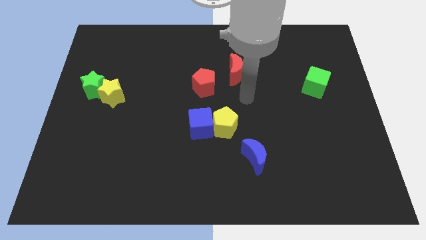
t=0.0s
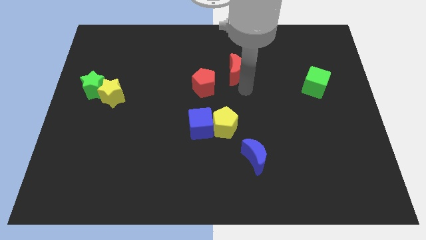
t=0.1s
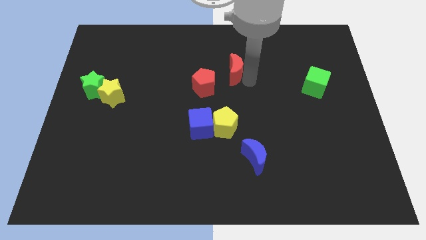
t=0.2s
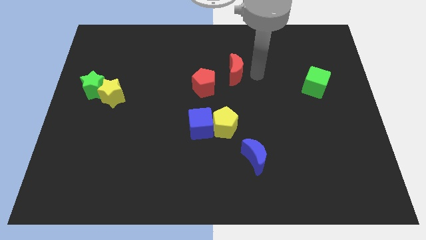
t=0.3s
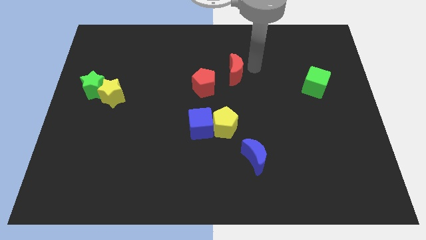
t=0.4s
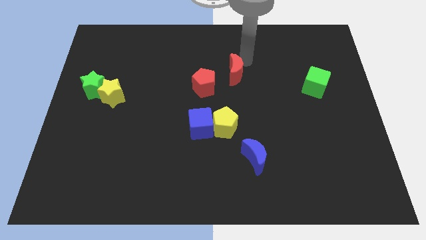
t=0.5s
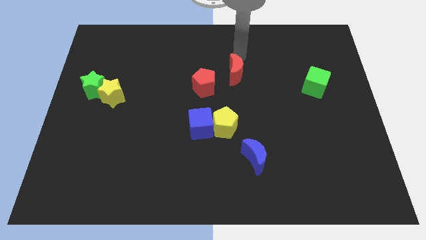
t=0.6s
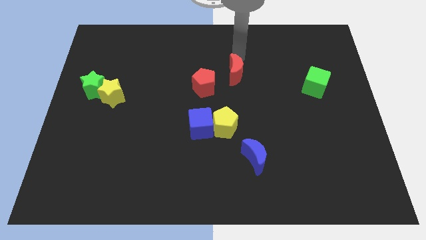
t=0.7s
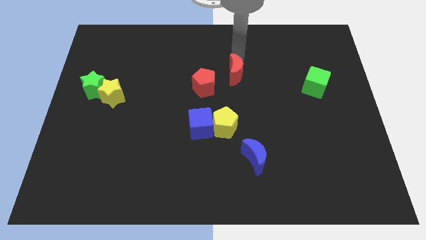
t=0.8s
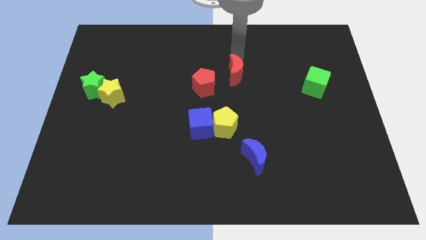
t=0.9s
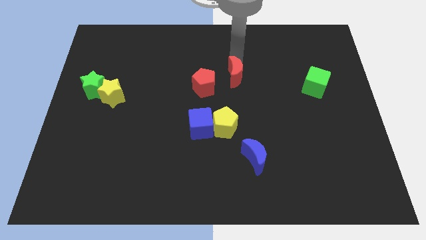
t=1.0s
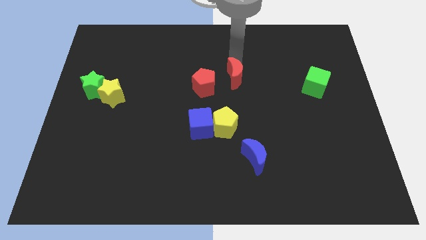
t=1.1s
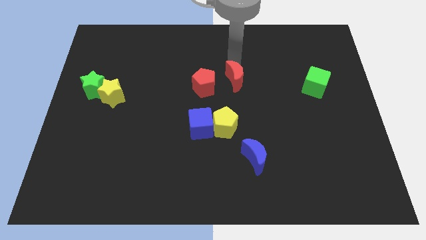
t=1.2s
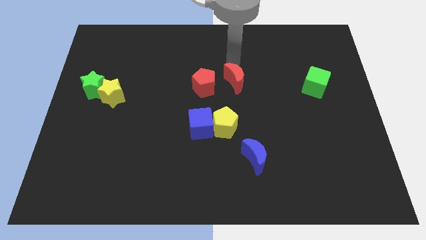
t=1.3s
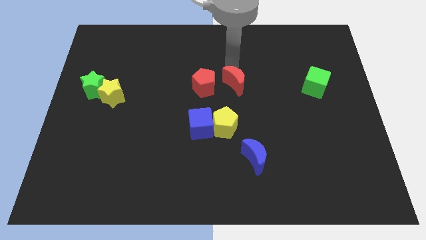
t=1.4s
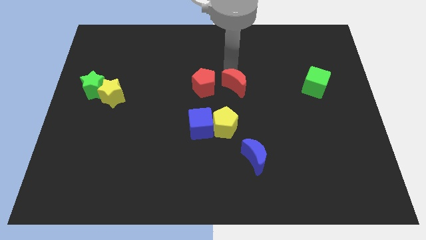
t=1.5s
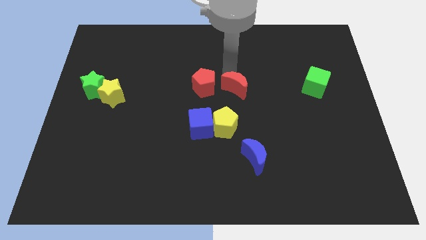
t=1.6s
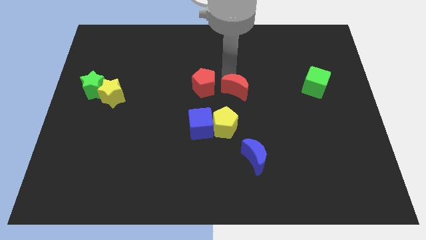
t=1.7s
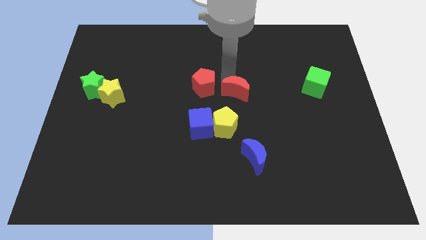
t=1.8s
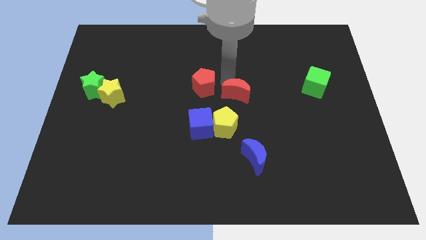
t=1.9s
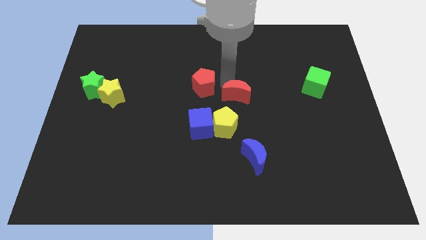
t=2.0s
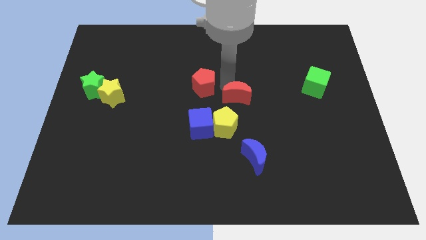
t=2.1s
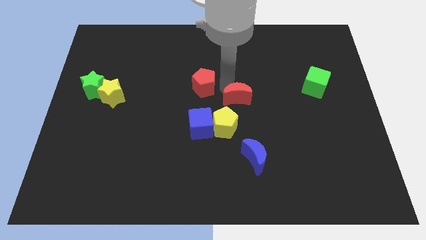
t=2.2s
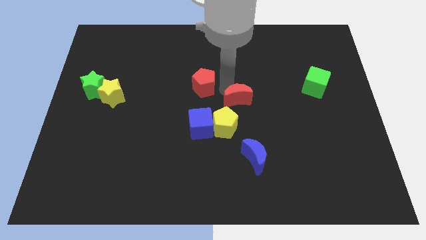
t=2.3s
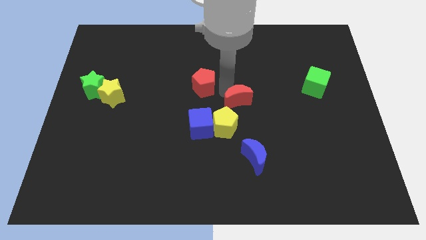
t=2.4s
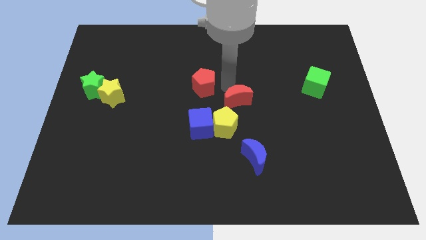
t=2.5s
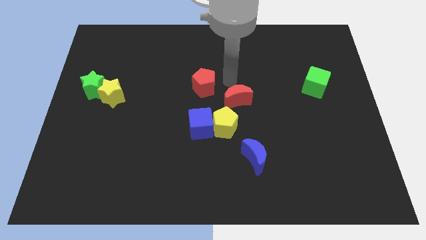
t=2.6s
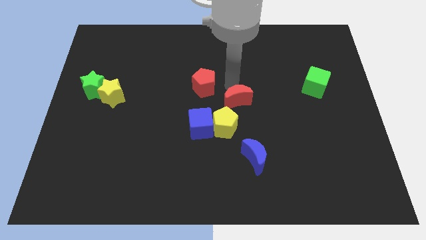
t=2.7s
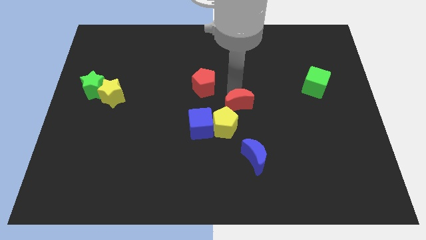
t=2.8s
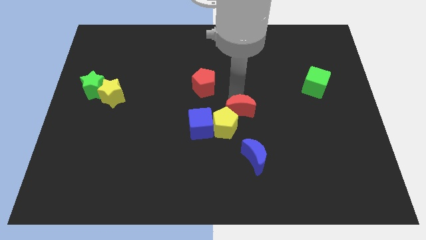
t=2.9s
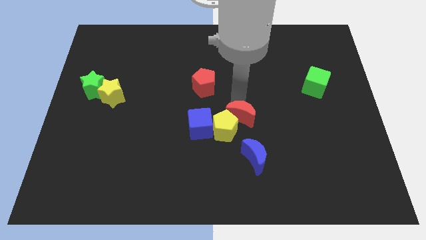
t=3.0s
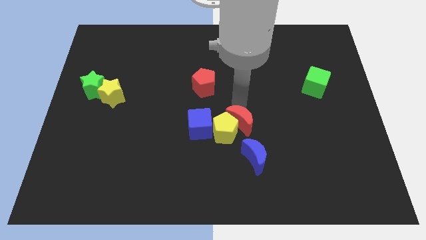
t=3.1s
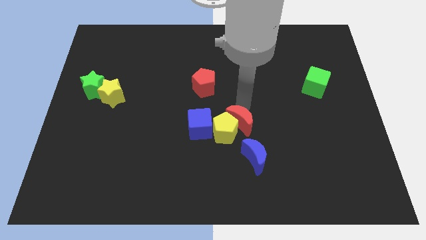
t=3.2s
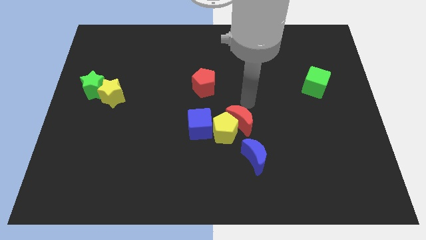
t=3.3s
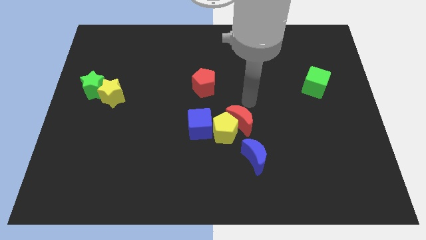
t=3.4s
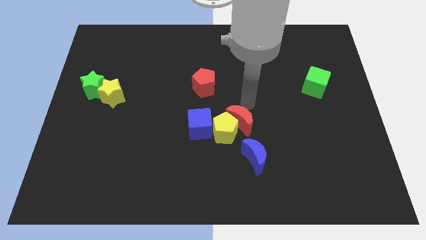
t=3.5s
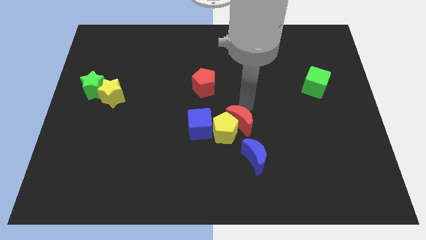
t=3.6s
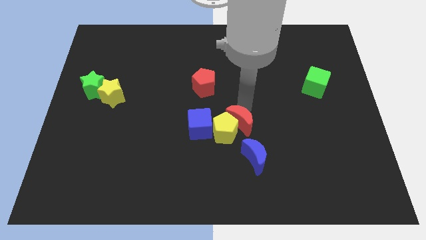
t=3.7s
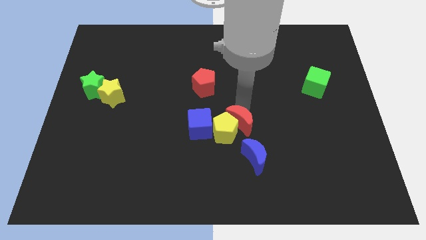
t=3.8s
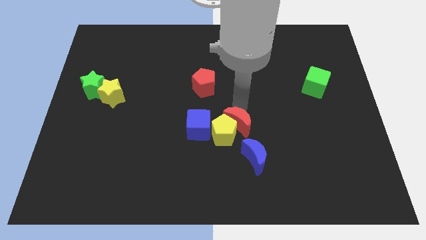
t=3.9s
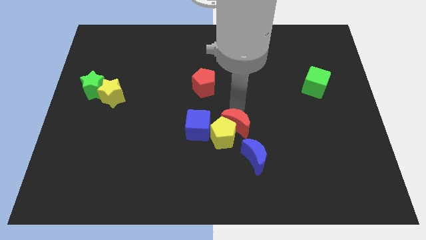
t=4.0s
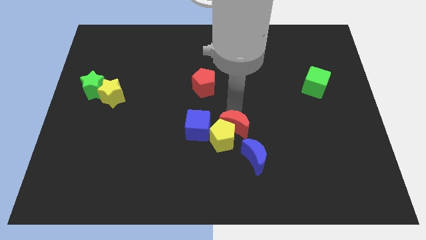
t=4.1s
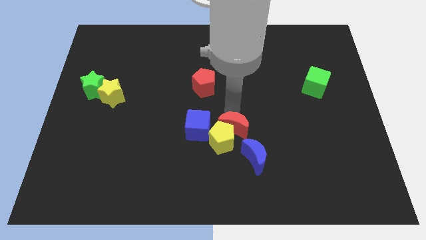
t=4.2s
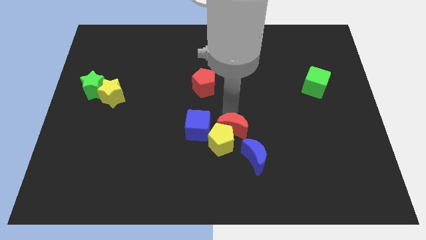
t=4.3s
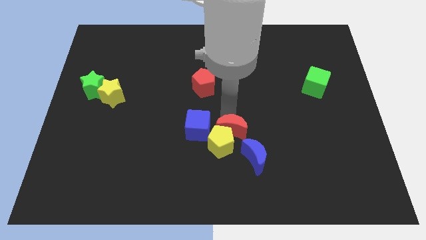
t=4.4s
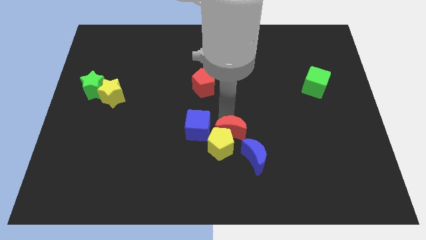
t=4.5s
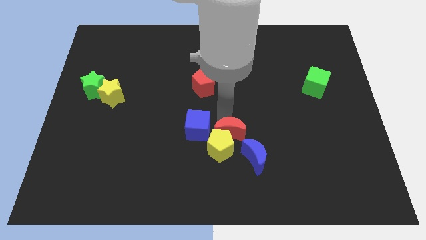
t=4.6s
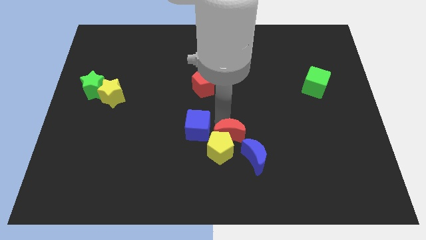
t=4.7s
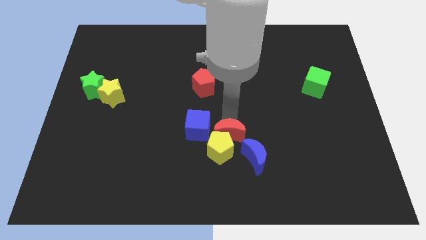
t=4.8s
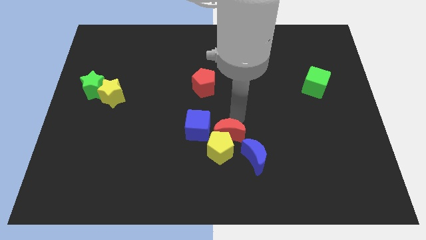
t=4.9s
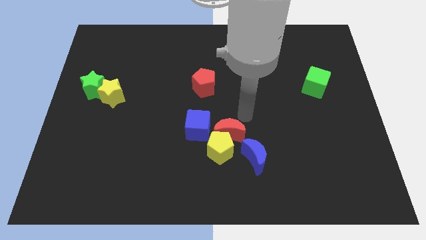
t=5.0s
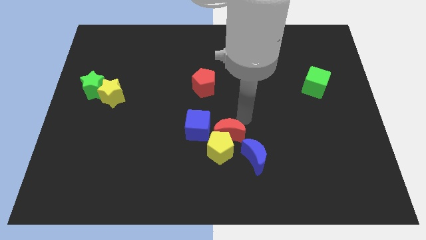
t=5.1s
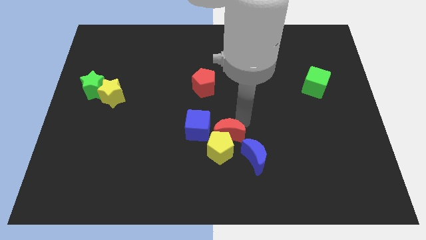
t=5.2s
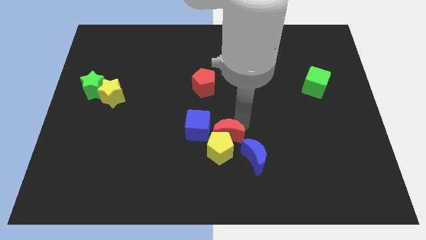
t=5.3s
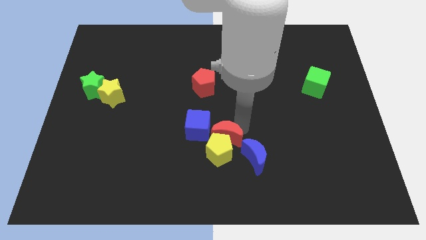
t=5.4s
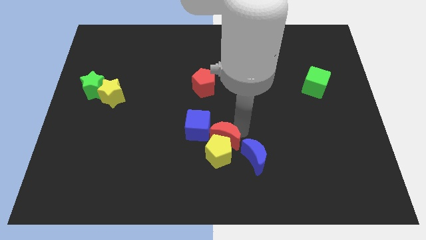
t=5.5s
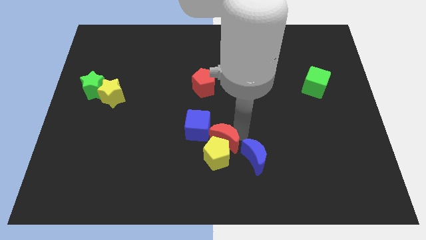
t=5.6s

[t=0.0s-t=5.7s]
put the red moon to the left side of the blue moon

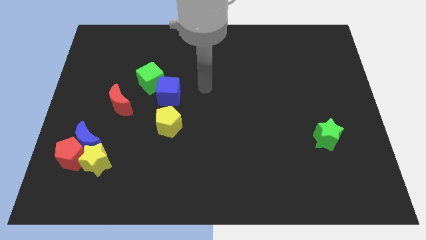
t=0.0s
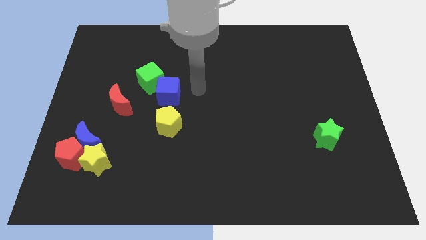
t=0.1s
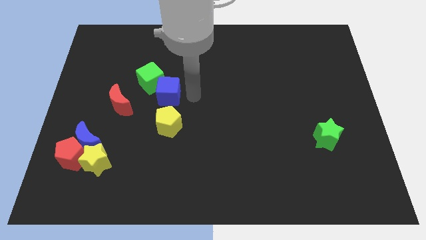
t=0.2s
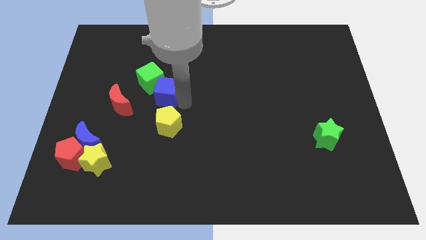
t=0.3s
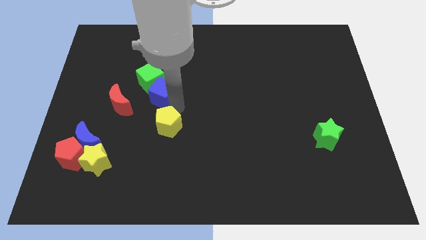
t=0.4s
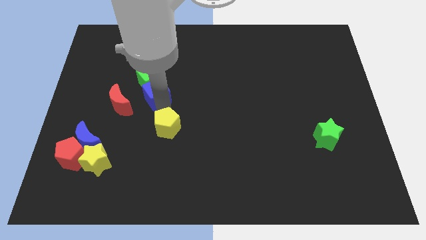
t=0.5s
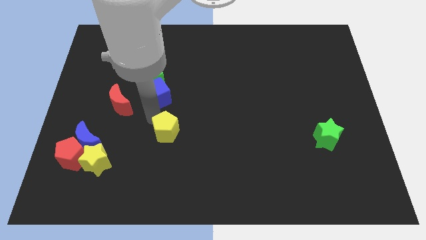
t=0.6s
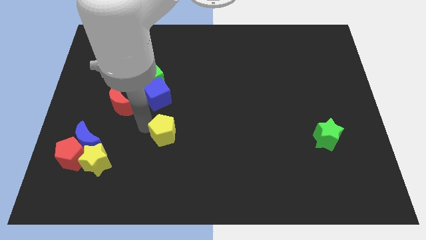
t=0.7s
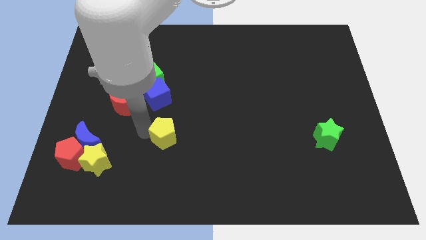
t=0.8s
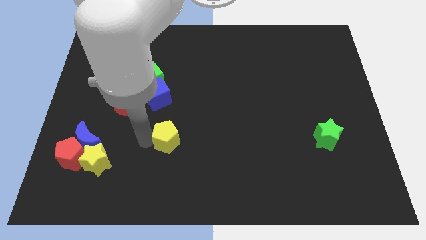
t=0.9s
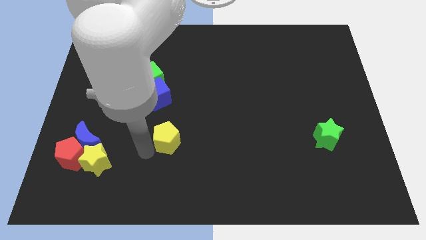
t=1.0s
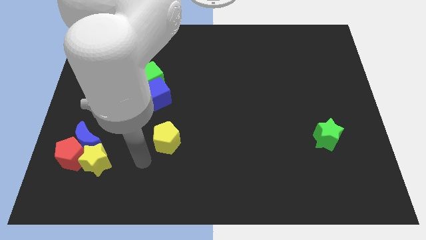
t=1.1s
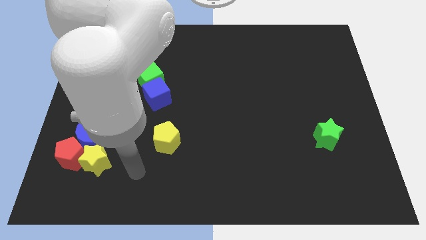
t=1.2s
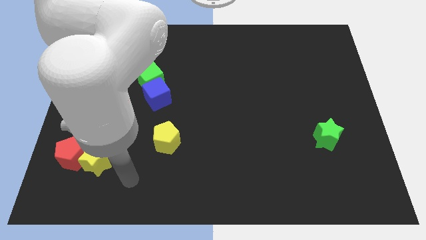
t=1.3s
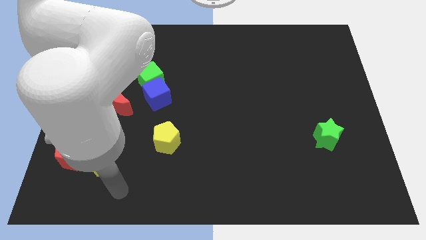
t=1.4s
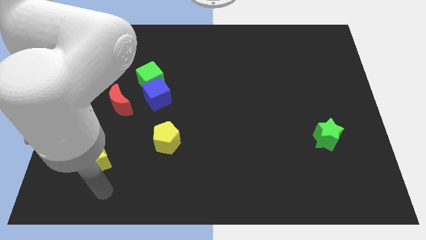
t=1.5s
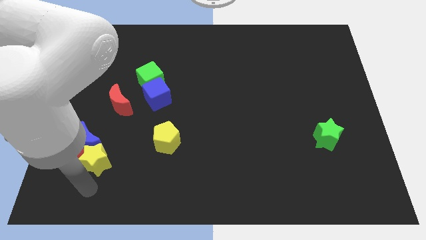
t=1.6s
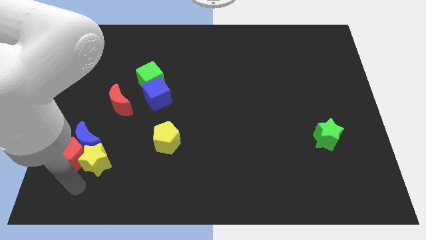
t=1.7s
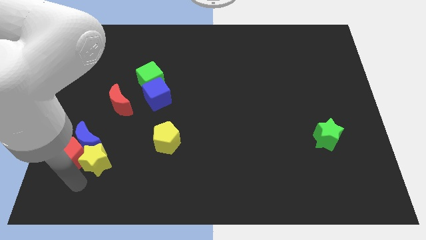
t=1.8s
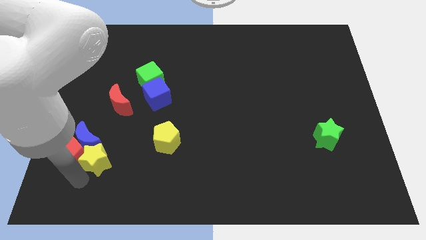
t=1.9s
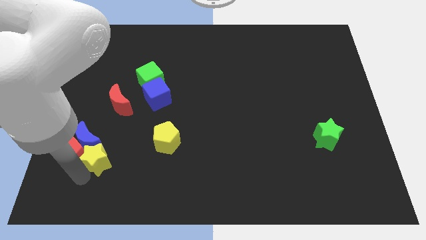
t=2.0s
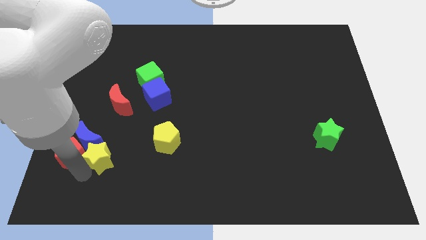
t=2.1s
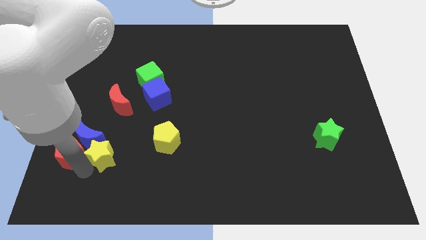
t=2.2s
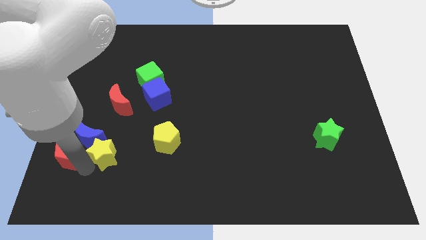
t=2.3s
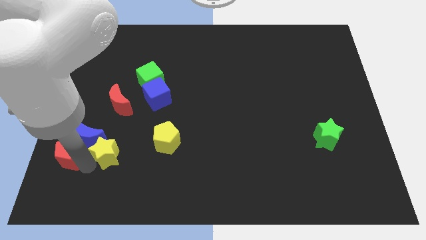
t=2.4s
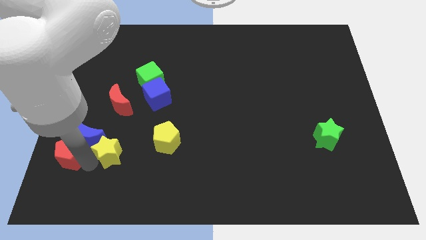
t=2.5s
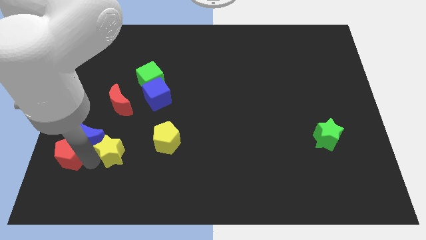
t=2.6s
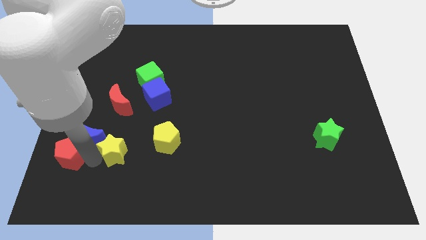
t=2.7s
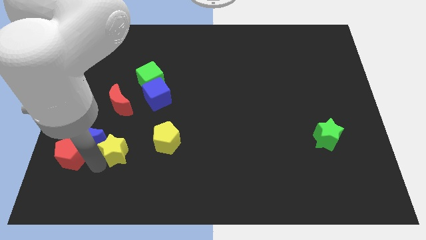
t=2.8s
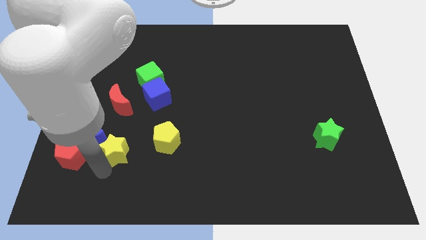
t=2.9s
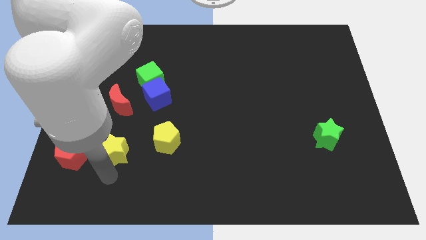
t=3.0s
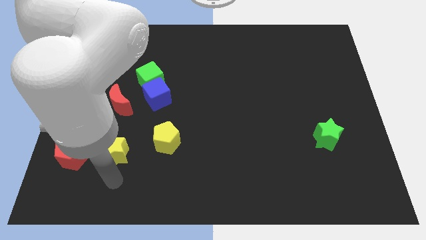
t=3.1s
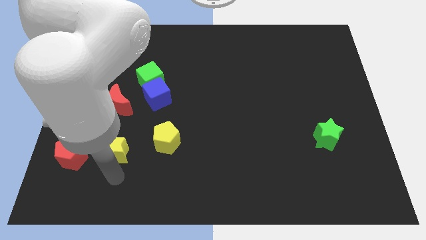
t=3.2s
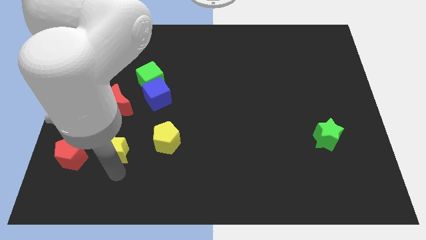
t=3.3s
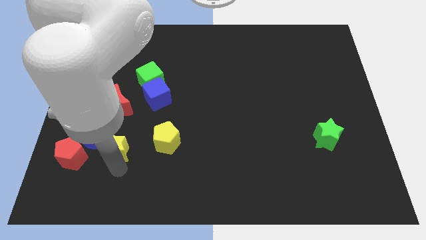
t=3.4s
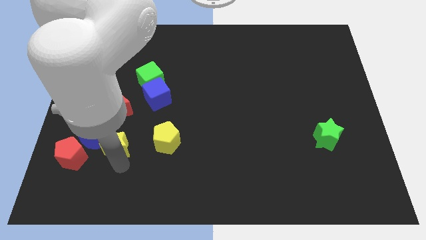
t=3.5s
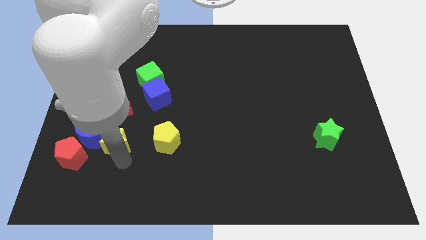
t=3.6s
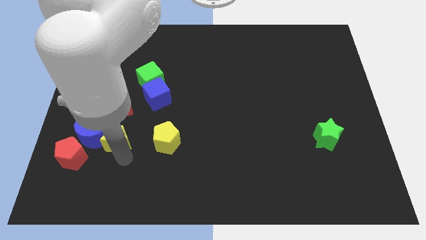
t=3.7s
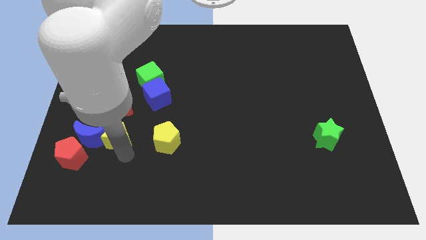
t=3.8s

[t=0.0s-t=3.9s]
slide the yellow star diagonally up and to the right of the blue moon
